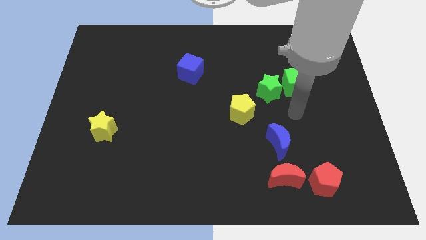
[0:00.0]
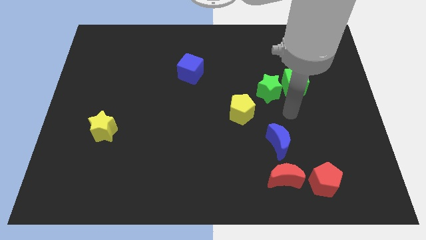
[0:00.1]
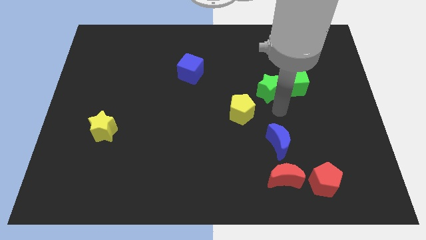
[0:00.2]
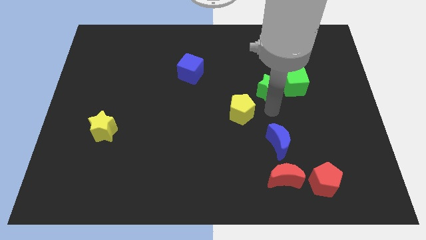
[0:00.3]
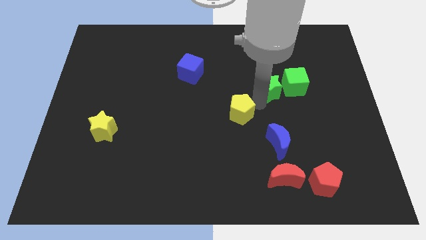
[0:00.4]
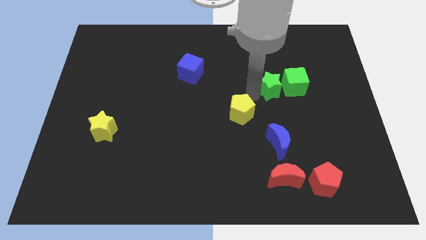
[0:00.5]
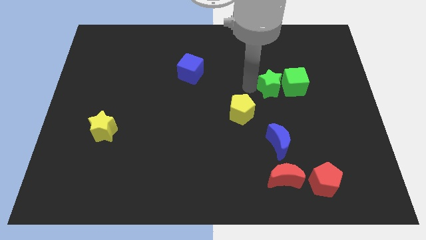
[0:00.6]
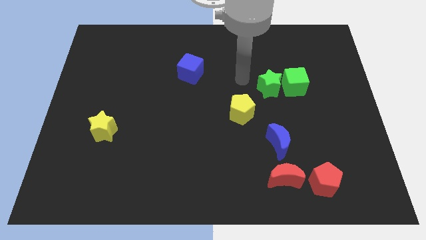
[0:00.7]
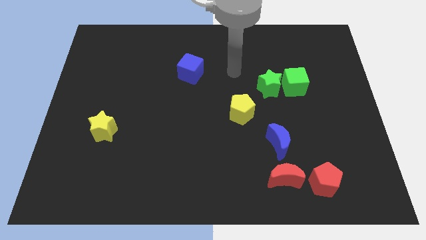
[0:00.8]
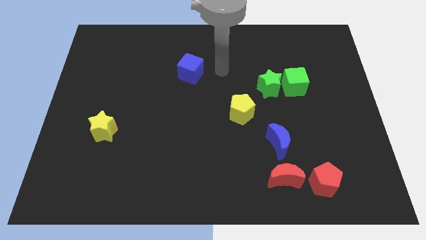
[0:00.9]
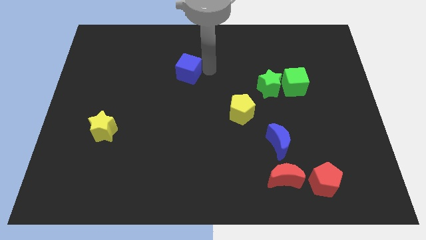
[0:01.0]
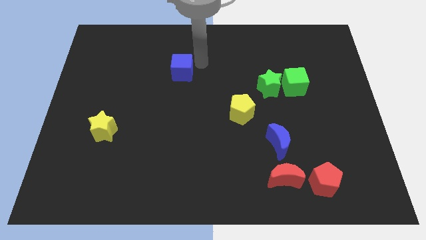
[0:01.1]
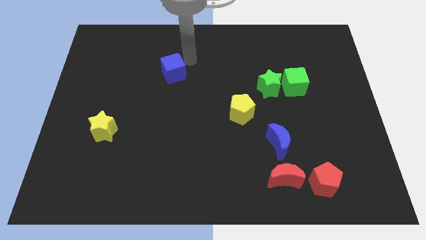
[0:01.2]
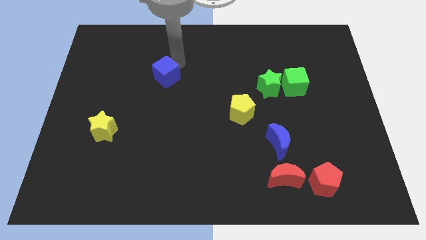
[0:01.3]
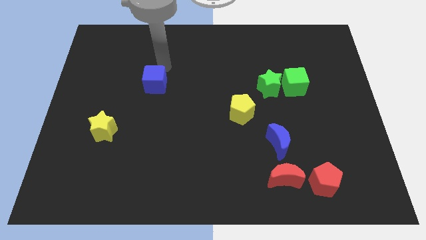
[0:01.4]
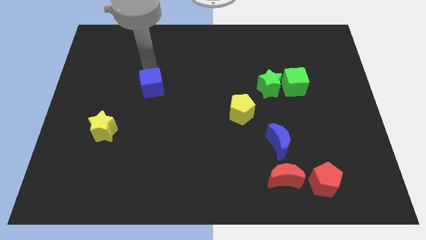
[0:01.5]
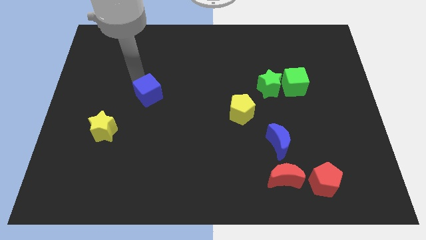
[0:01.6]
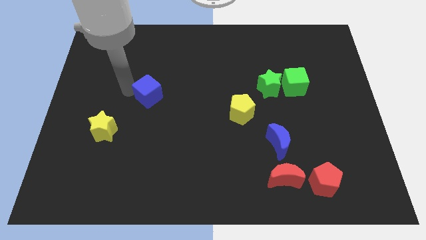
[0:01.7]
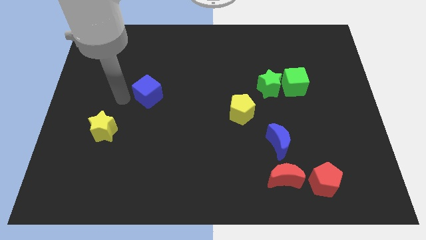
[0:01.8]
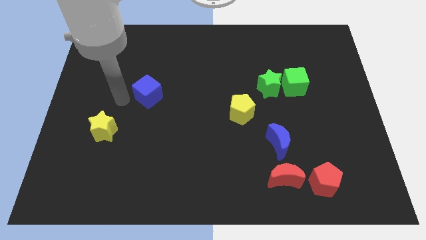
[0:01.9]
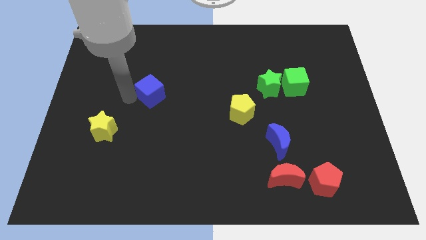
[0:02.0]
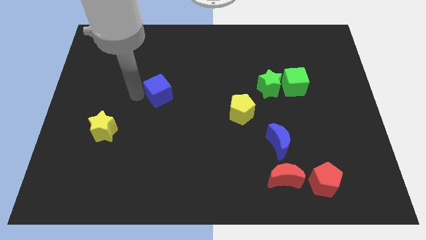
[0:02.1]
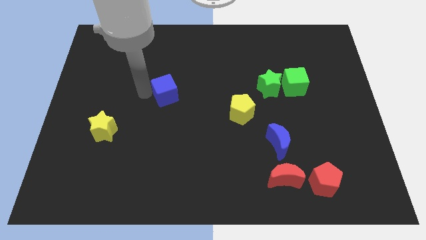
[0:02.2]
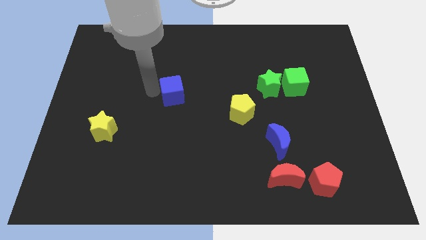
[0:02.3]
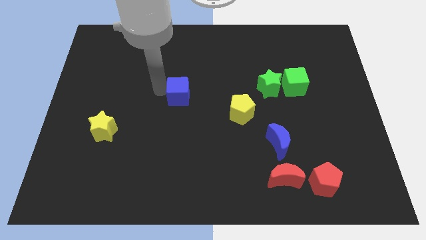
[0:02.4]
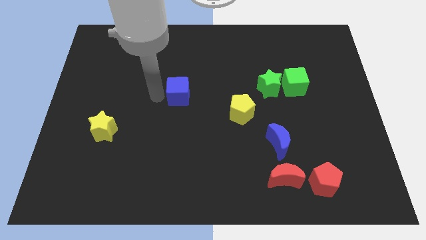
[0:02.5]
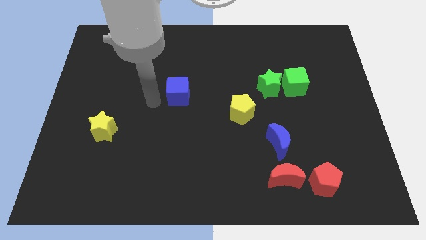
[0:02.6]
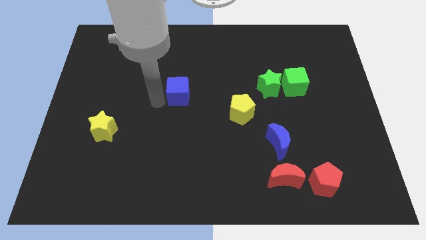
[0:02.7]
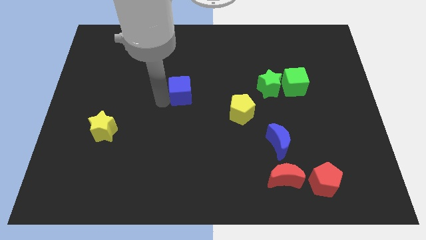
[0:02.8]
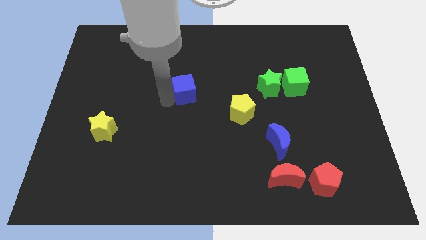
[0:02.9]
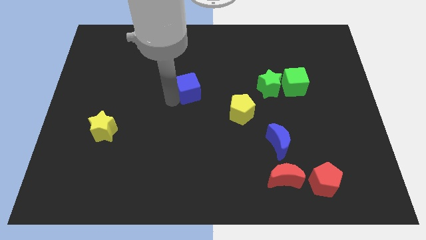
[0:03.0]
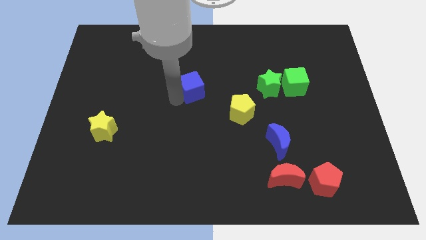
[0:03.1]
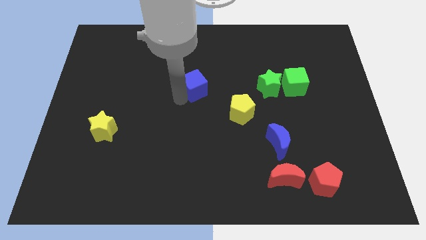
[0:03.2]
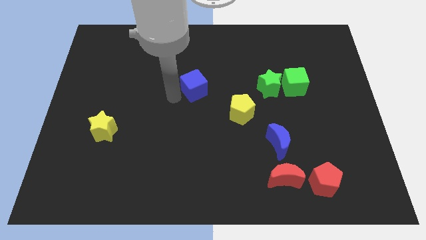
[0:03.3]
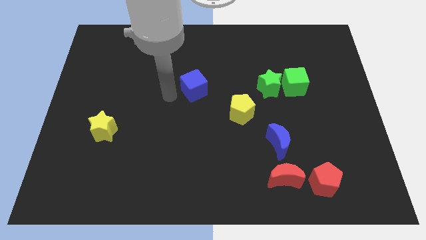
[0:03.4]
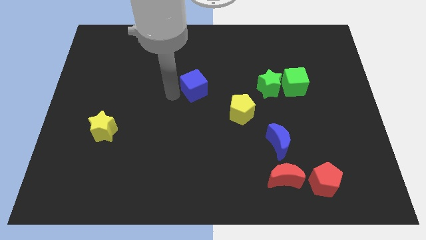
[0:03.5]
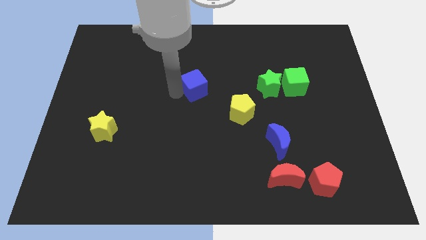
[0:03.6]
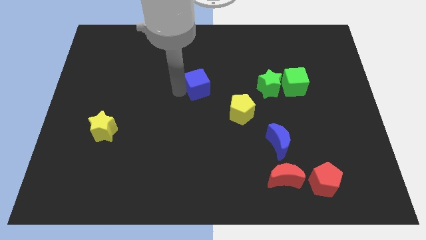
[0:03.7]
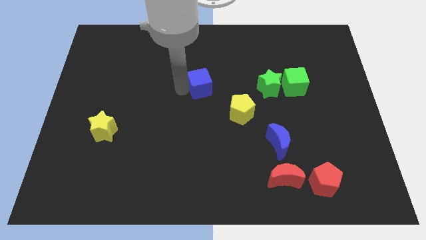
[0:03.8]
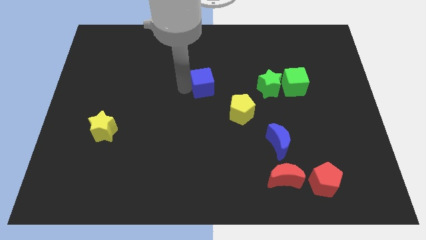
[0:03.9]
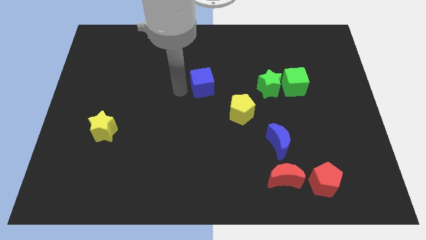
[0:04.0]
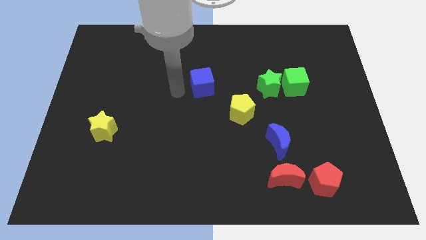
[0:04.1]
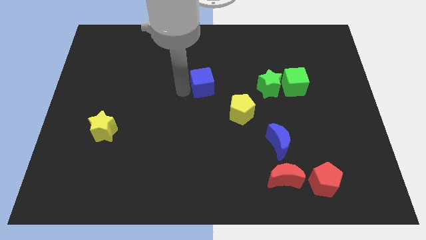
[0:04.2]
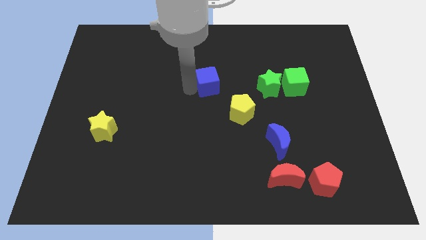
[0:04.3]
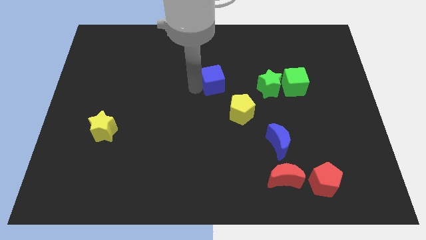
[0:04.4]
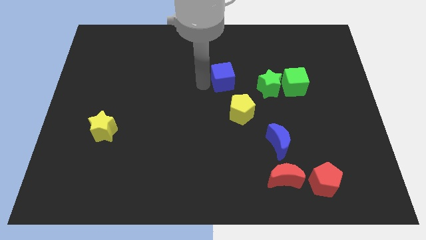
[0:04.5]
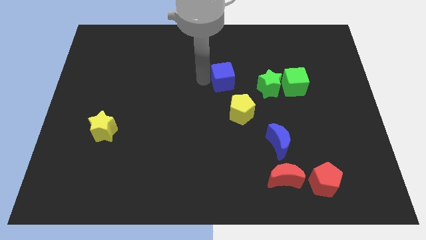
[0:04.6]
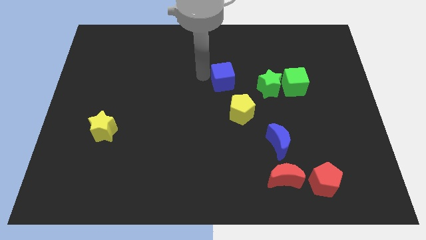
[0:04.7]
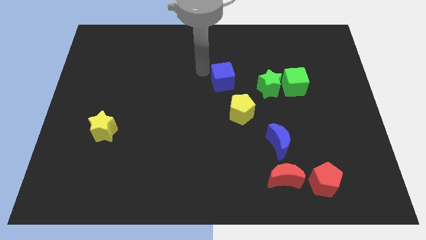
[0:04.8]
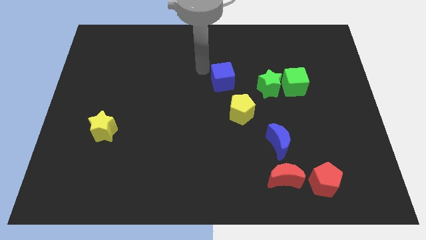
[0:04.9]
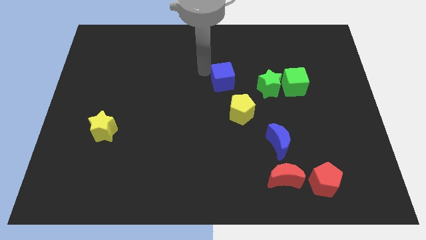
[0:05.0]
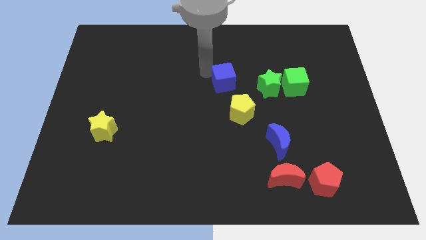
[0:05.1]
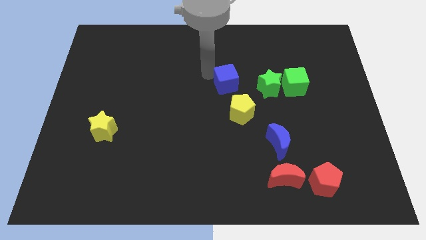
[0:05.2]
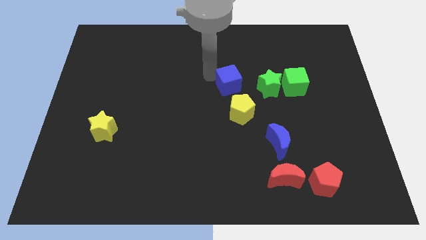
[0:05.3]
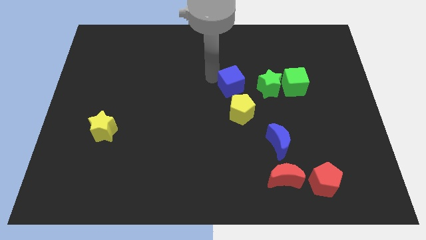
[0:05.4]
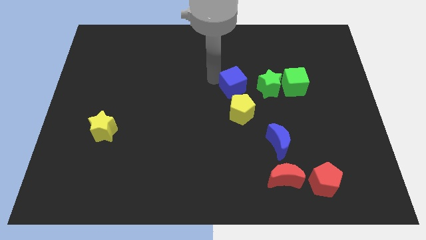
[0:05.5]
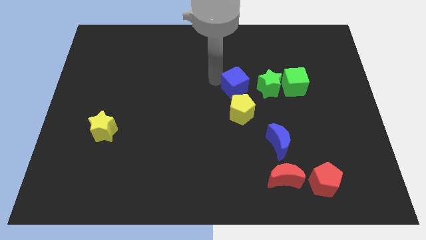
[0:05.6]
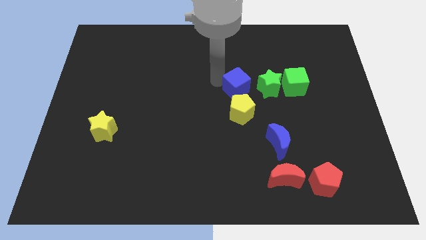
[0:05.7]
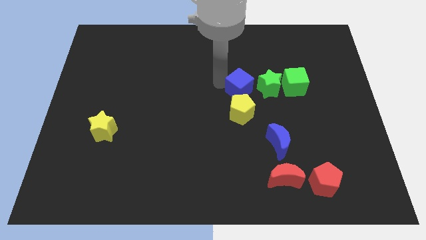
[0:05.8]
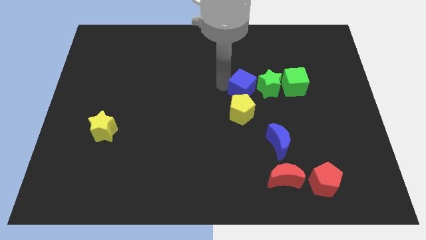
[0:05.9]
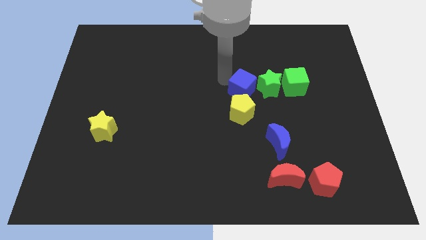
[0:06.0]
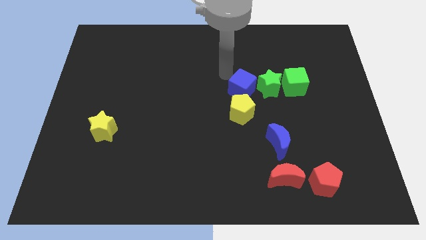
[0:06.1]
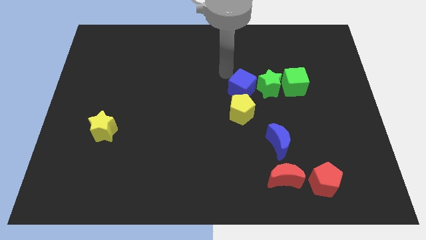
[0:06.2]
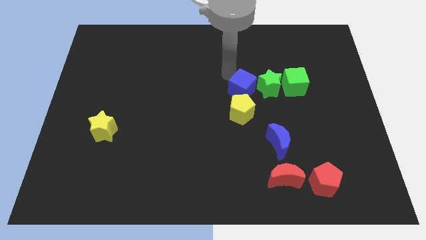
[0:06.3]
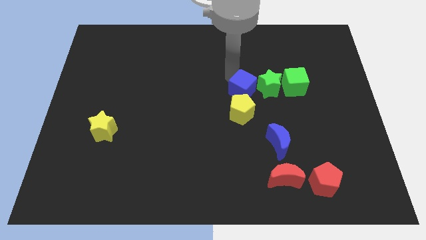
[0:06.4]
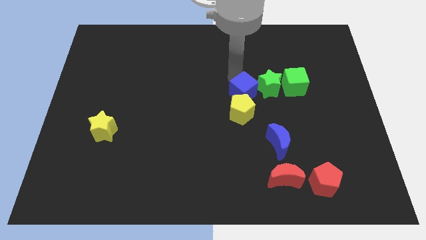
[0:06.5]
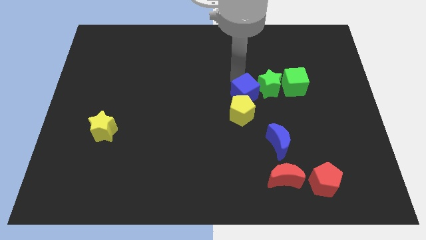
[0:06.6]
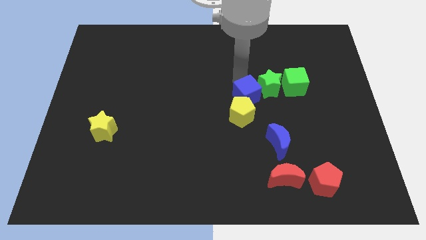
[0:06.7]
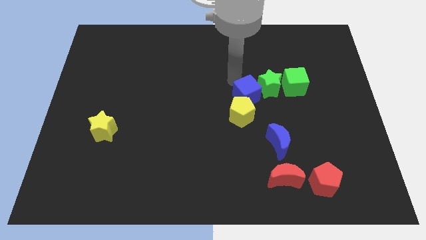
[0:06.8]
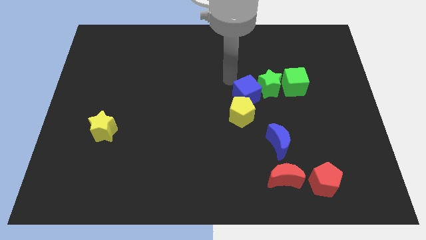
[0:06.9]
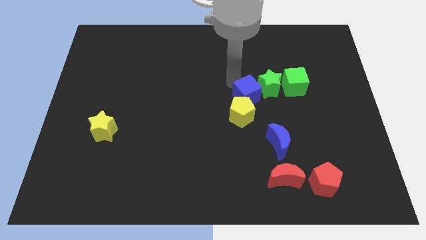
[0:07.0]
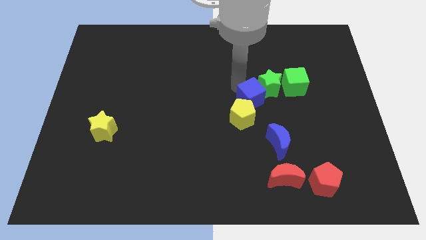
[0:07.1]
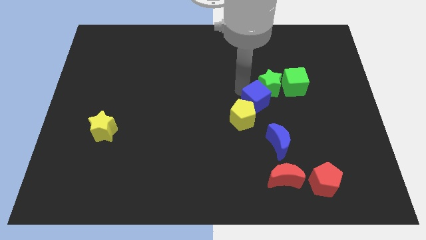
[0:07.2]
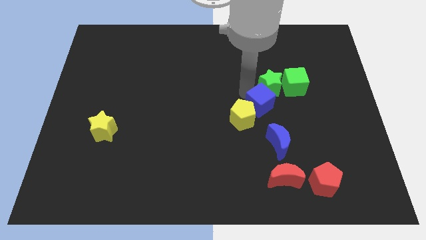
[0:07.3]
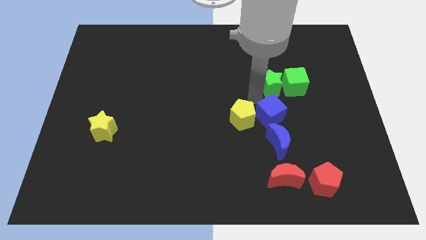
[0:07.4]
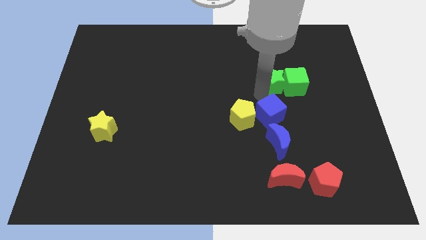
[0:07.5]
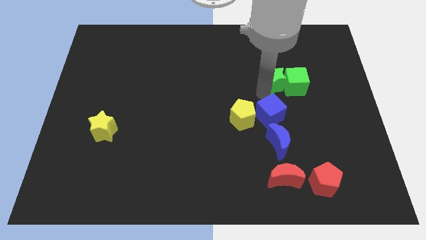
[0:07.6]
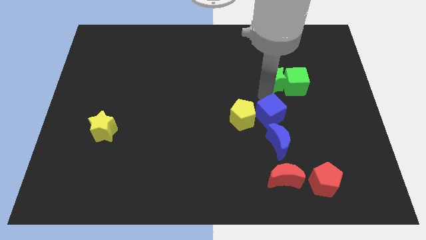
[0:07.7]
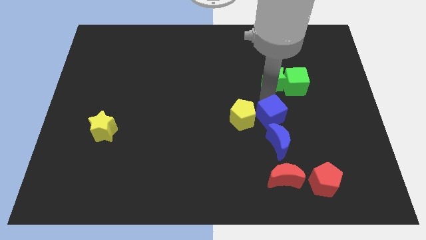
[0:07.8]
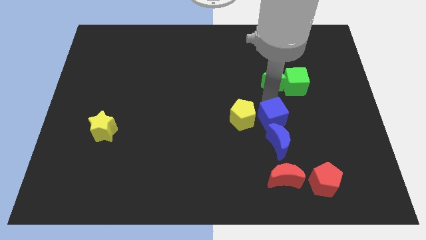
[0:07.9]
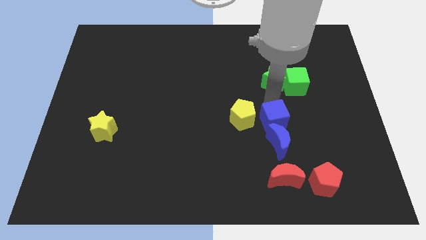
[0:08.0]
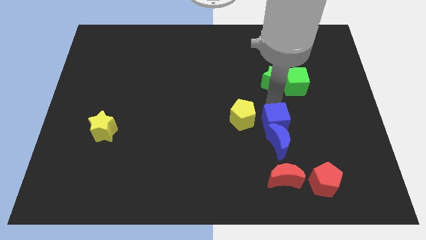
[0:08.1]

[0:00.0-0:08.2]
push the blue cube close to the blue moon
